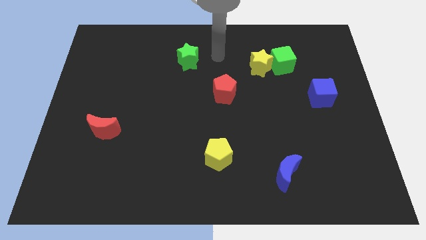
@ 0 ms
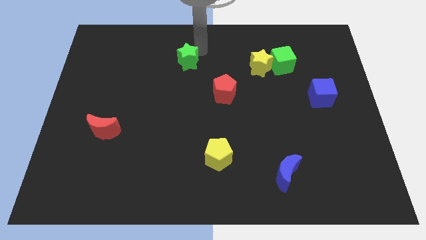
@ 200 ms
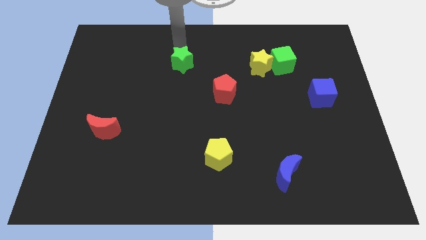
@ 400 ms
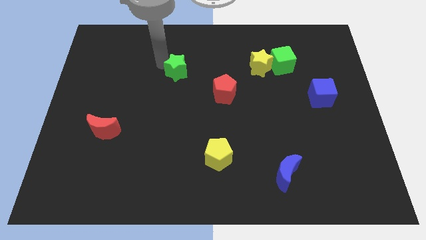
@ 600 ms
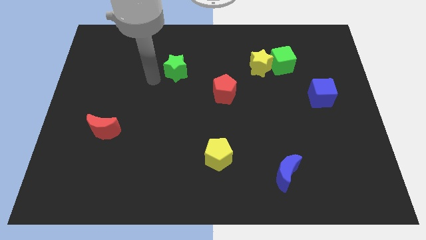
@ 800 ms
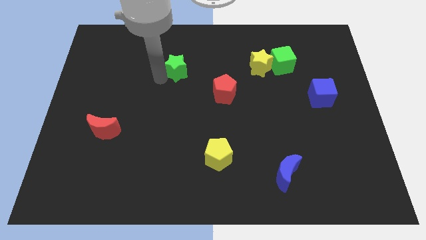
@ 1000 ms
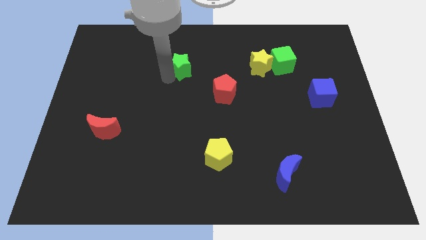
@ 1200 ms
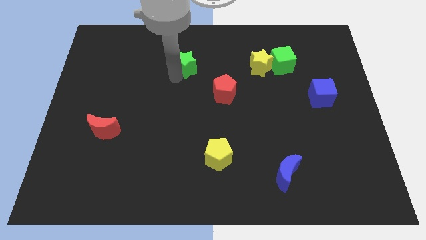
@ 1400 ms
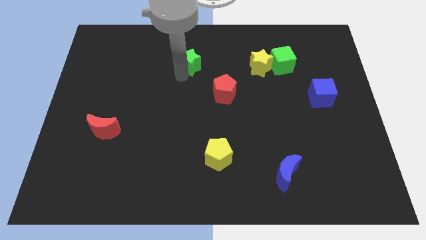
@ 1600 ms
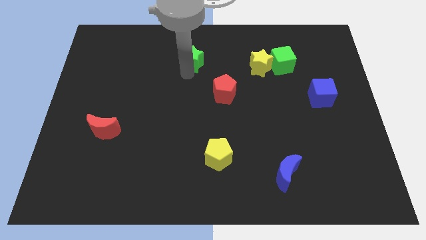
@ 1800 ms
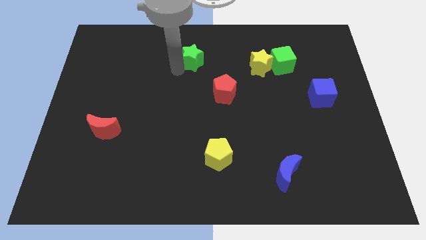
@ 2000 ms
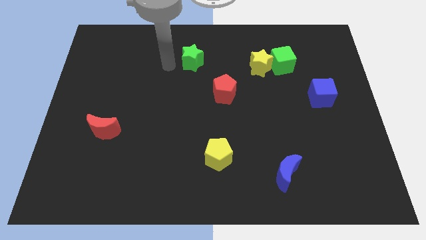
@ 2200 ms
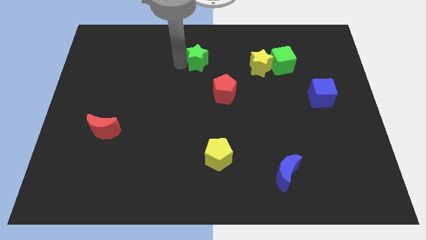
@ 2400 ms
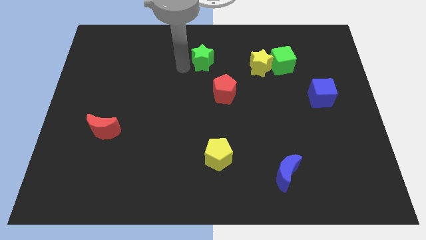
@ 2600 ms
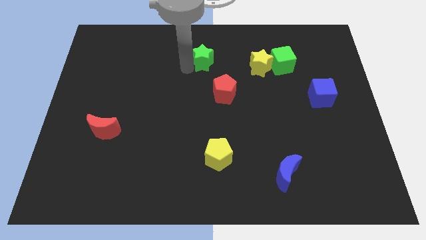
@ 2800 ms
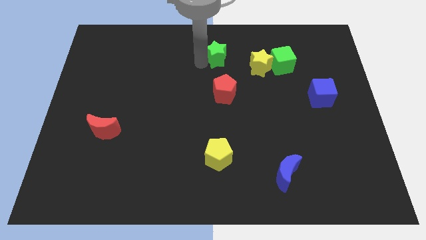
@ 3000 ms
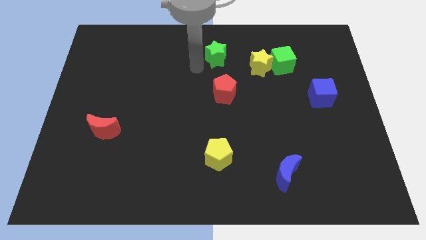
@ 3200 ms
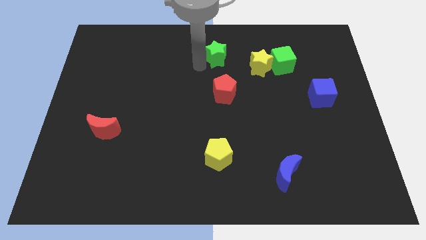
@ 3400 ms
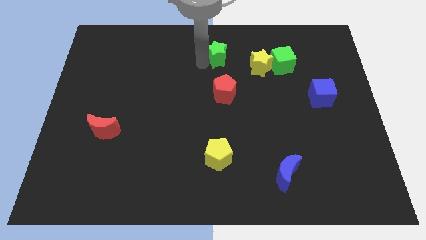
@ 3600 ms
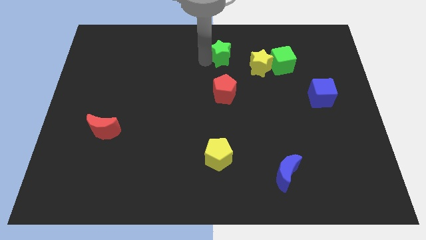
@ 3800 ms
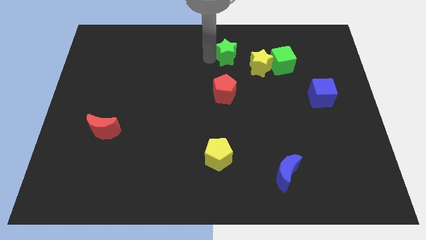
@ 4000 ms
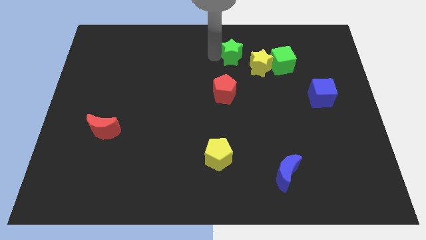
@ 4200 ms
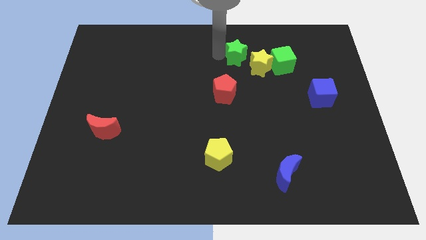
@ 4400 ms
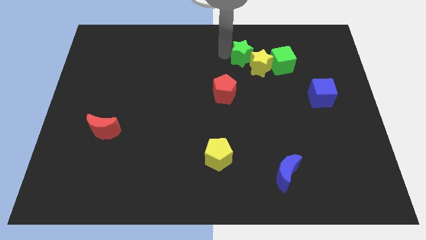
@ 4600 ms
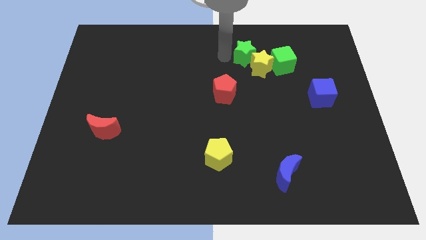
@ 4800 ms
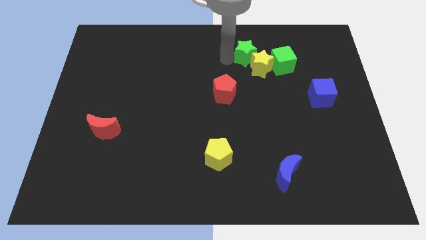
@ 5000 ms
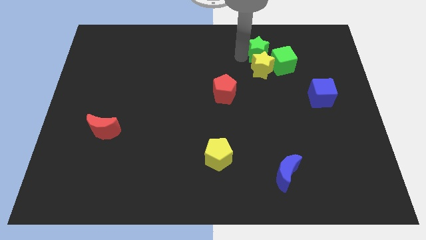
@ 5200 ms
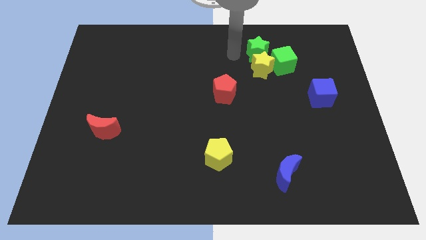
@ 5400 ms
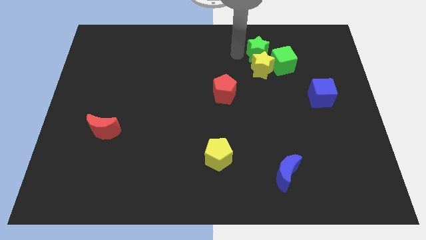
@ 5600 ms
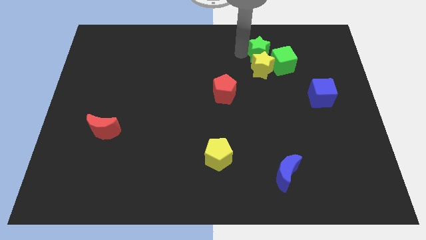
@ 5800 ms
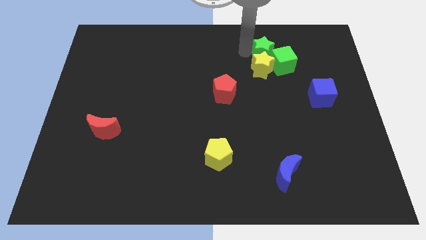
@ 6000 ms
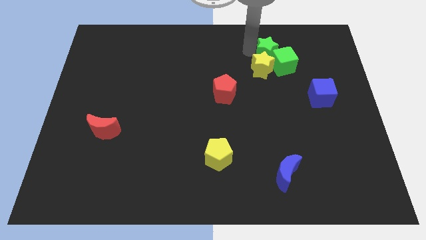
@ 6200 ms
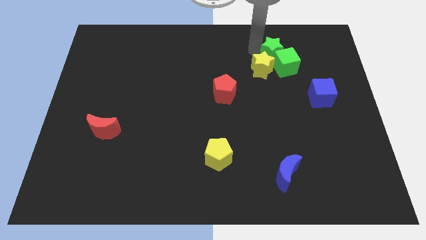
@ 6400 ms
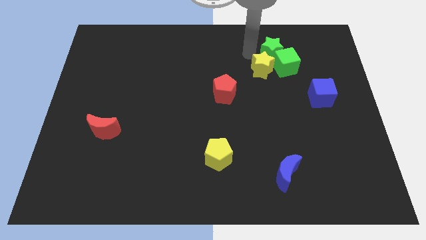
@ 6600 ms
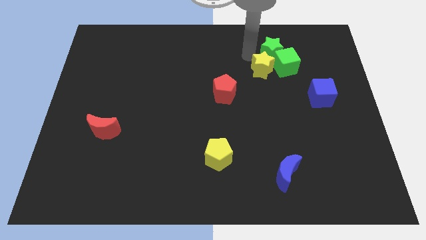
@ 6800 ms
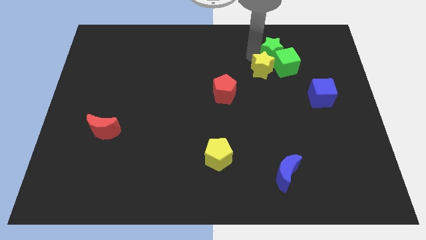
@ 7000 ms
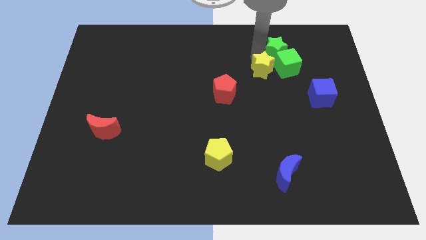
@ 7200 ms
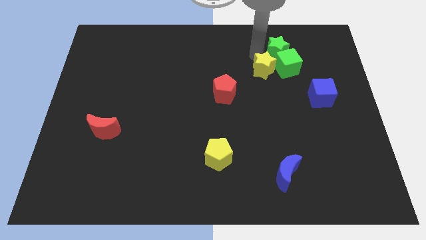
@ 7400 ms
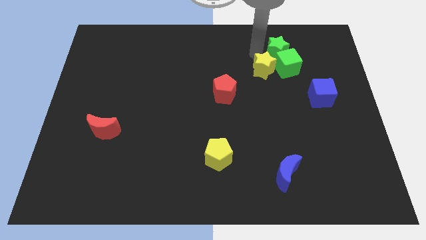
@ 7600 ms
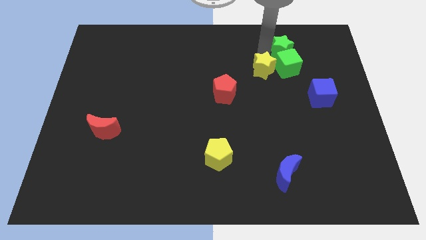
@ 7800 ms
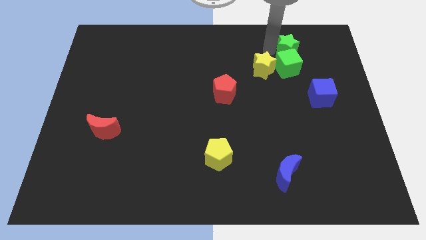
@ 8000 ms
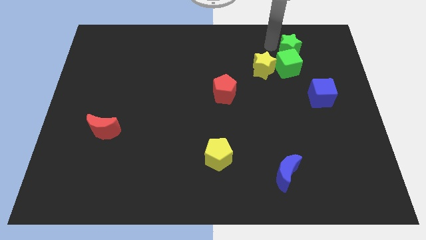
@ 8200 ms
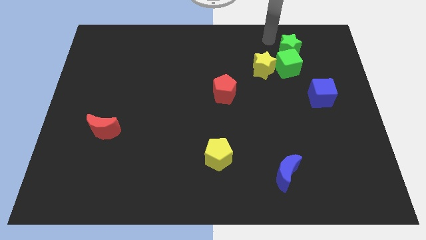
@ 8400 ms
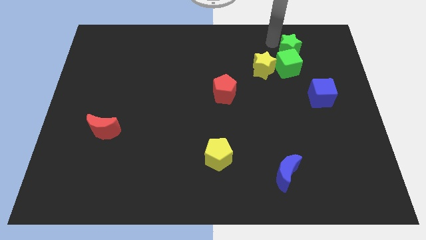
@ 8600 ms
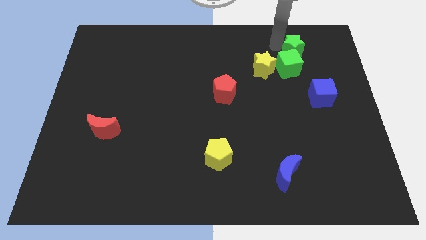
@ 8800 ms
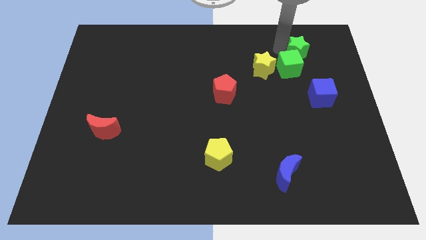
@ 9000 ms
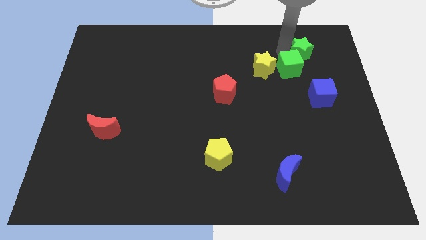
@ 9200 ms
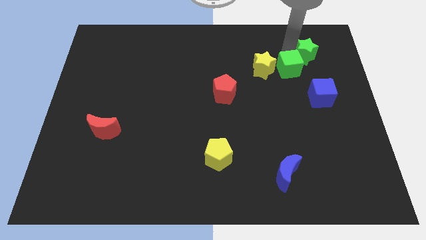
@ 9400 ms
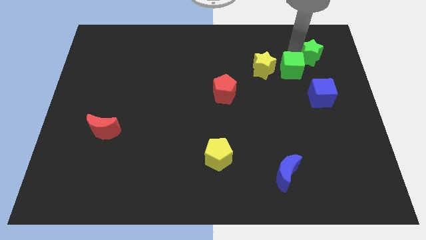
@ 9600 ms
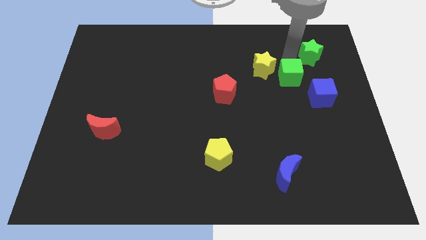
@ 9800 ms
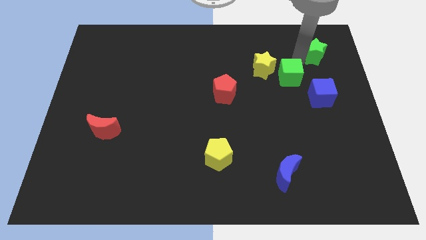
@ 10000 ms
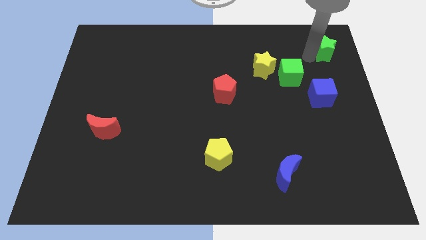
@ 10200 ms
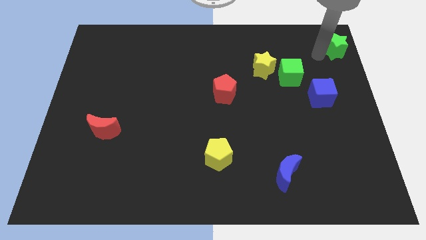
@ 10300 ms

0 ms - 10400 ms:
put the green star to the top right corner

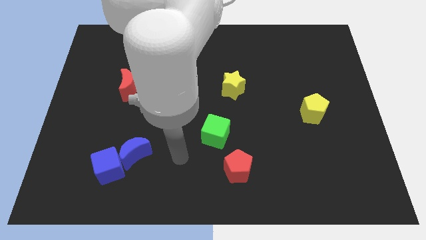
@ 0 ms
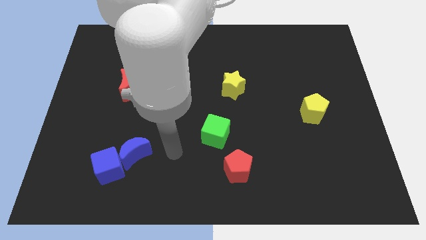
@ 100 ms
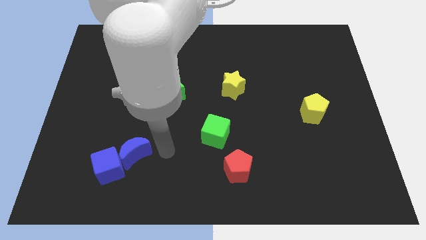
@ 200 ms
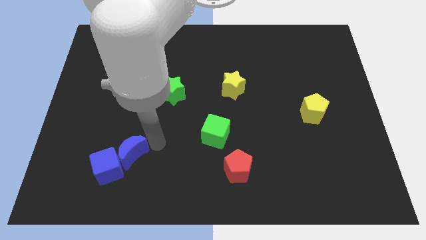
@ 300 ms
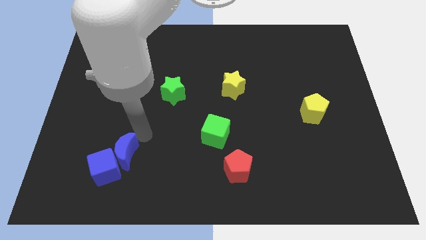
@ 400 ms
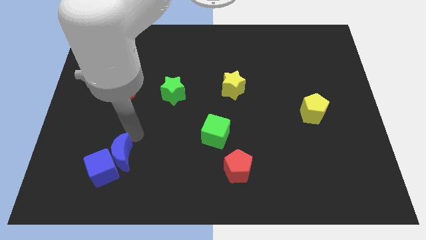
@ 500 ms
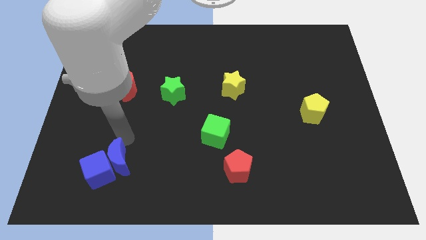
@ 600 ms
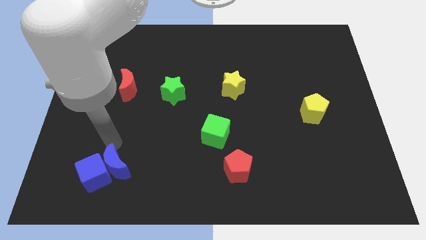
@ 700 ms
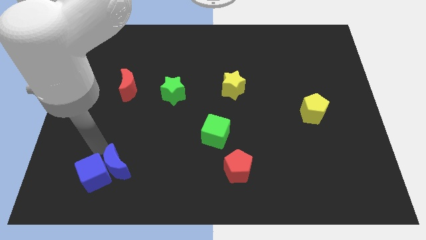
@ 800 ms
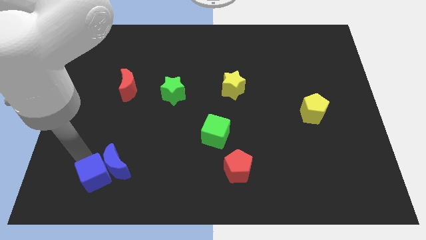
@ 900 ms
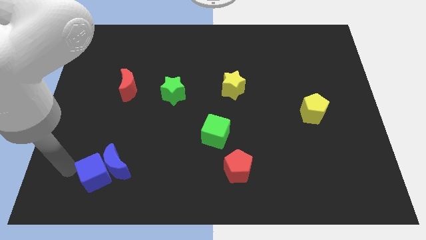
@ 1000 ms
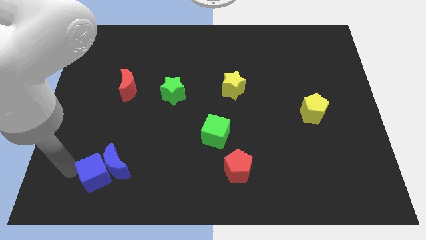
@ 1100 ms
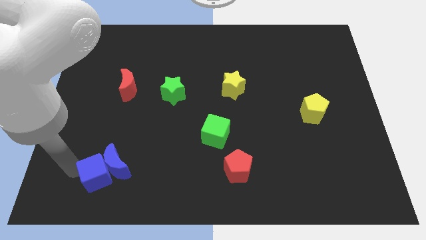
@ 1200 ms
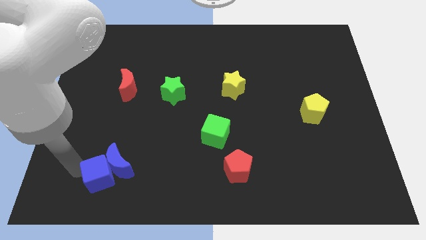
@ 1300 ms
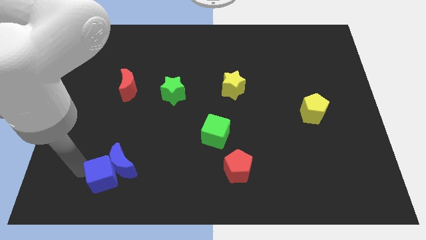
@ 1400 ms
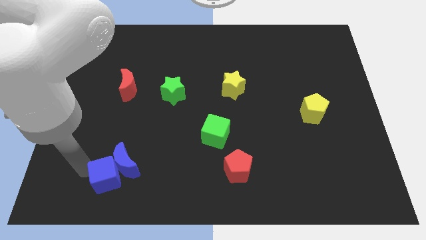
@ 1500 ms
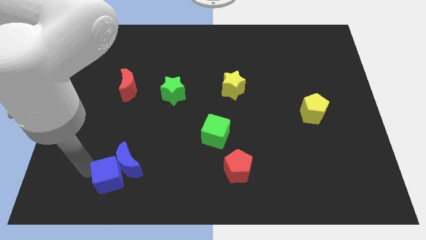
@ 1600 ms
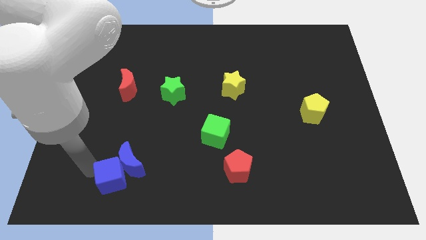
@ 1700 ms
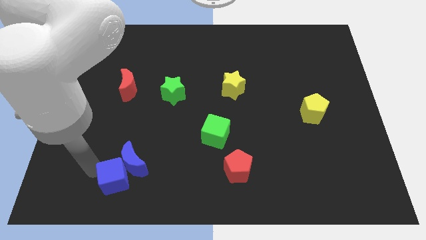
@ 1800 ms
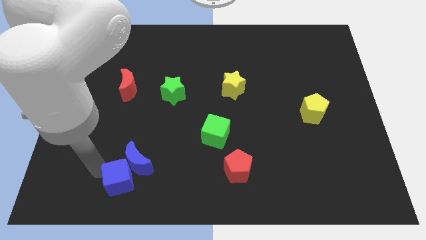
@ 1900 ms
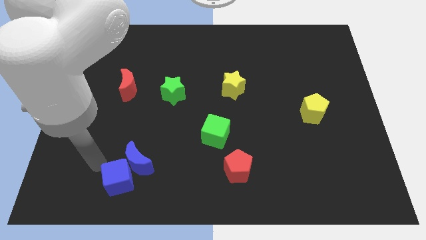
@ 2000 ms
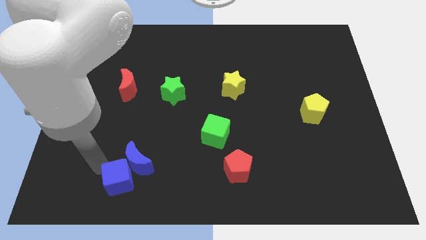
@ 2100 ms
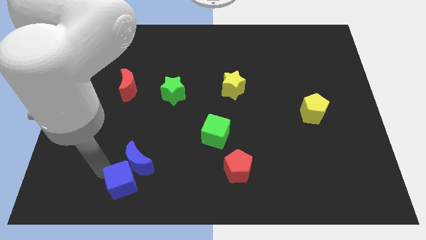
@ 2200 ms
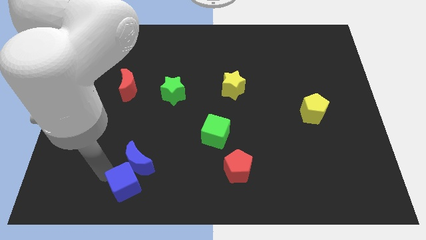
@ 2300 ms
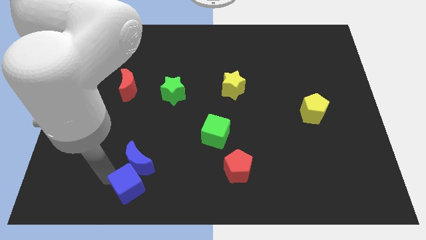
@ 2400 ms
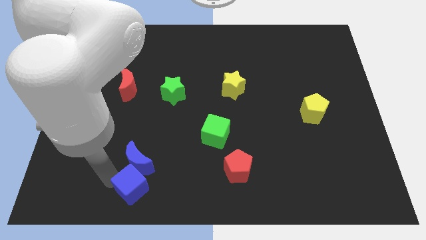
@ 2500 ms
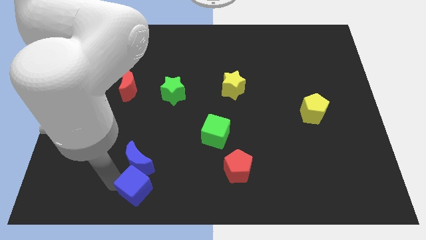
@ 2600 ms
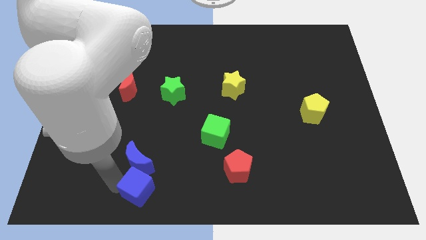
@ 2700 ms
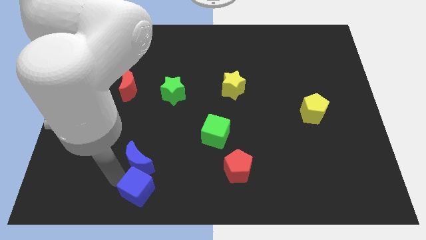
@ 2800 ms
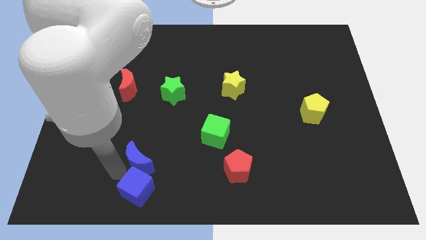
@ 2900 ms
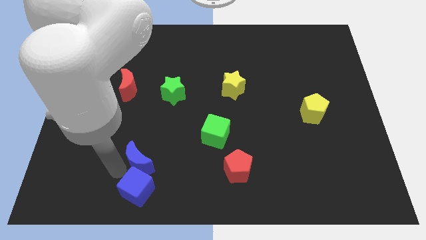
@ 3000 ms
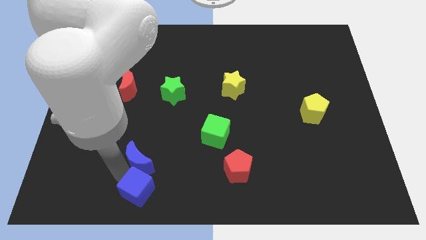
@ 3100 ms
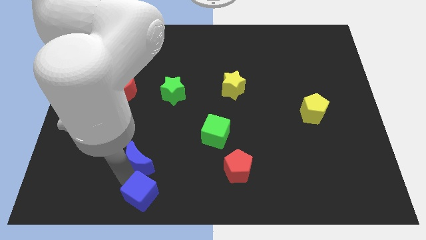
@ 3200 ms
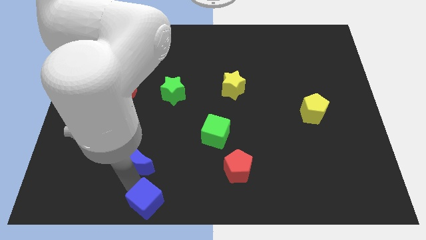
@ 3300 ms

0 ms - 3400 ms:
move the blue cube to the bottom side
